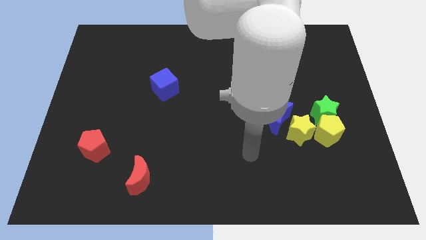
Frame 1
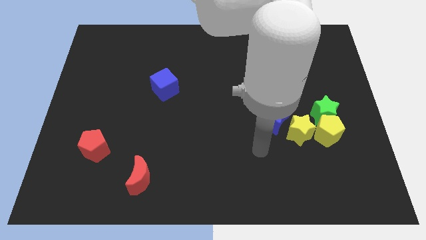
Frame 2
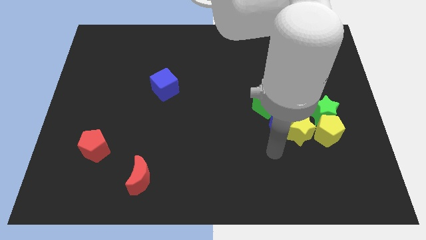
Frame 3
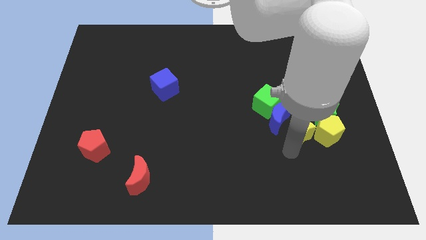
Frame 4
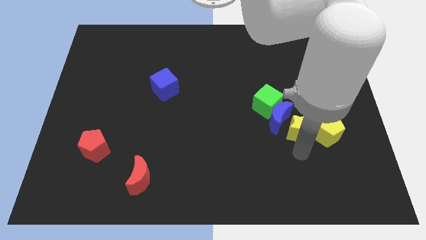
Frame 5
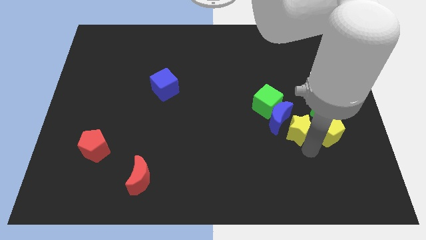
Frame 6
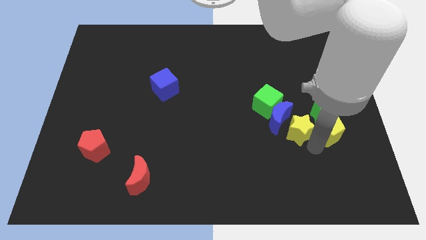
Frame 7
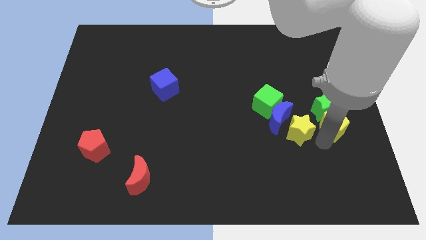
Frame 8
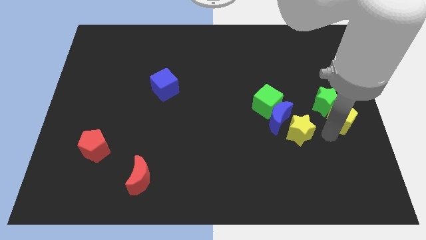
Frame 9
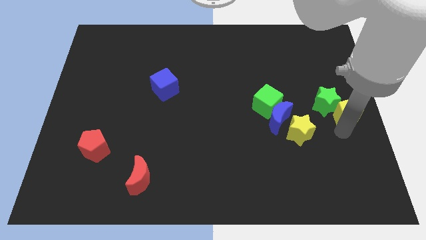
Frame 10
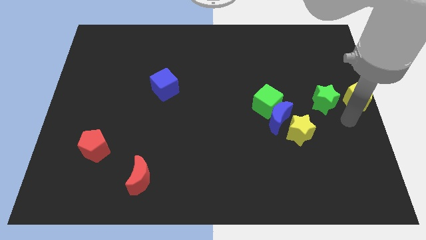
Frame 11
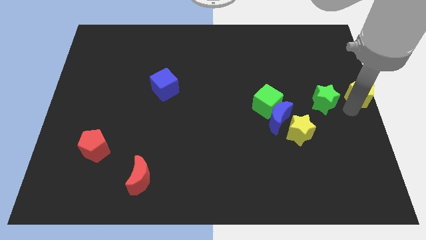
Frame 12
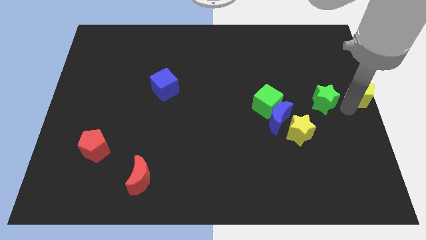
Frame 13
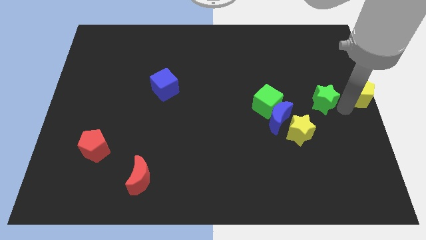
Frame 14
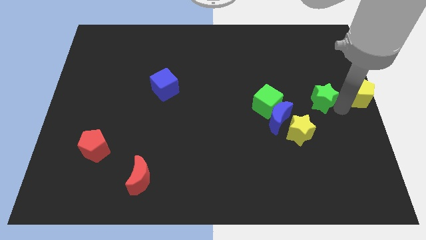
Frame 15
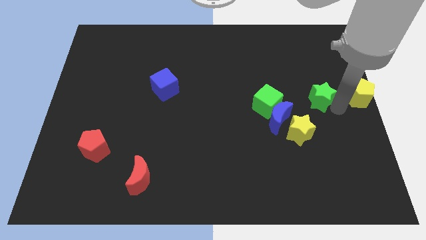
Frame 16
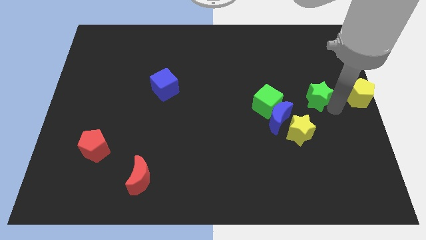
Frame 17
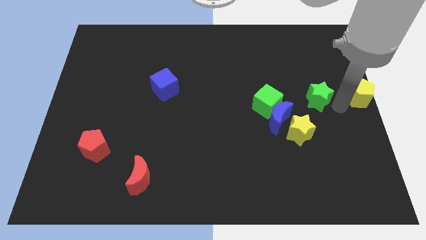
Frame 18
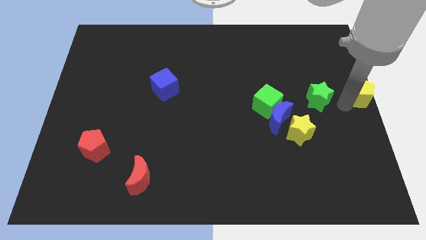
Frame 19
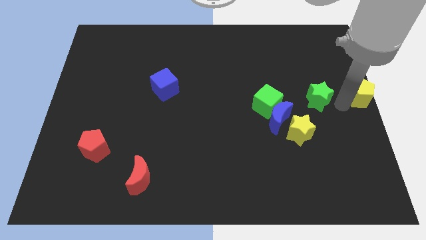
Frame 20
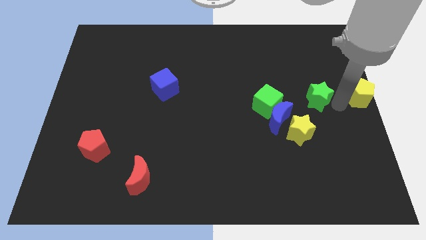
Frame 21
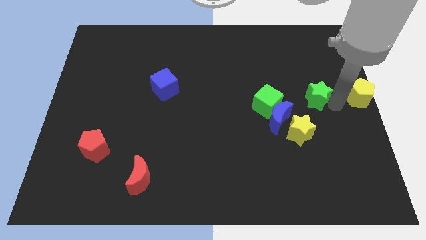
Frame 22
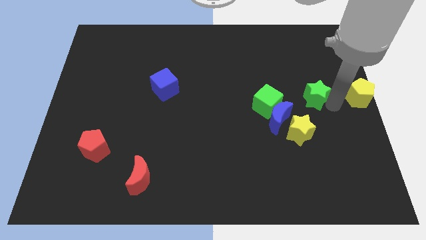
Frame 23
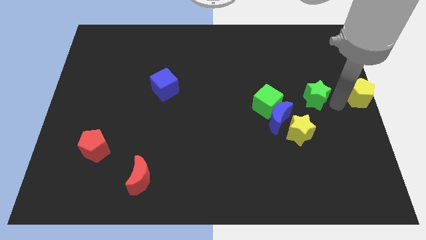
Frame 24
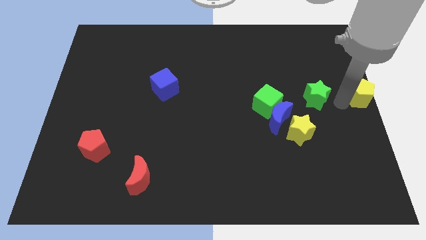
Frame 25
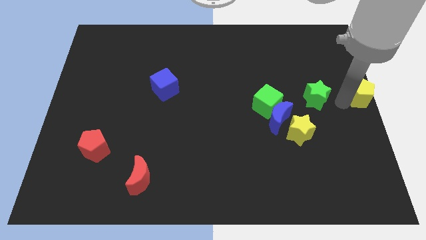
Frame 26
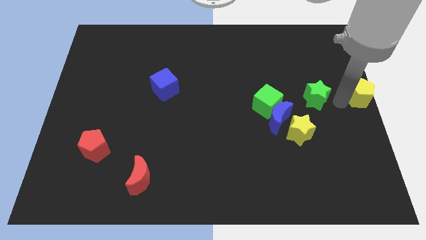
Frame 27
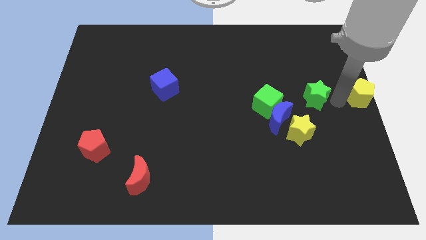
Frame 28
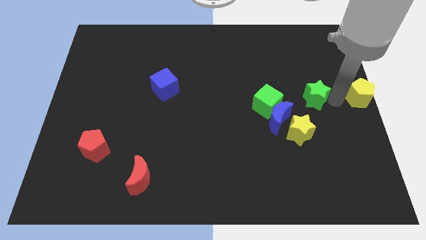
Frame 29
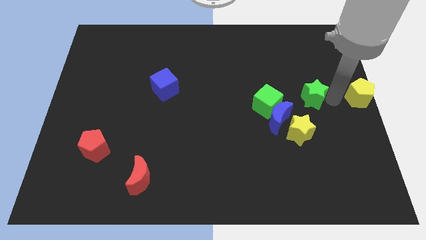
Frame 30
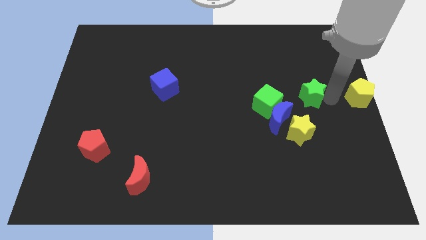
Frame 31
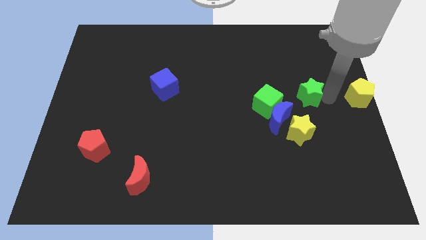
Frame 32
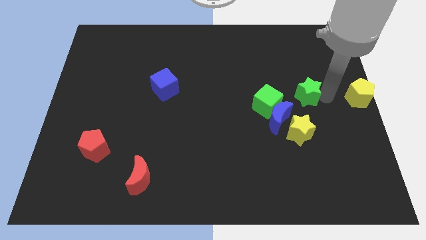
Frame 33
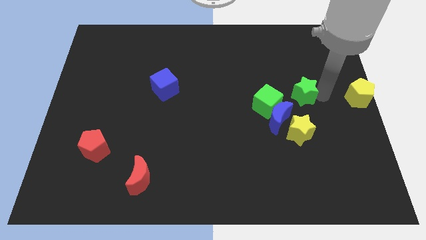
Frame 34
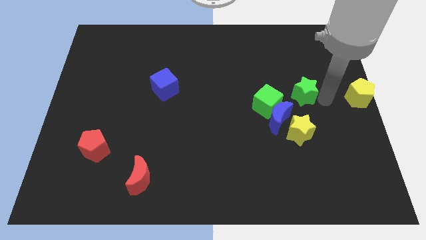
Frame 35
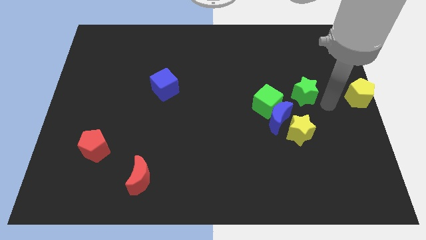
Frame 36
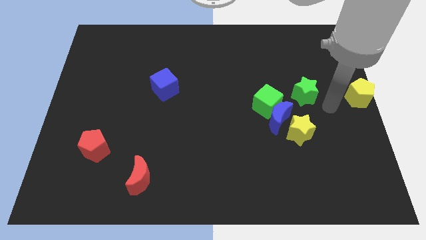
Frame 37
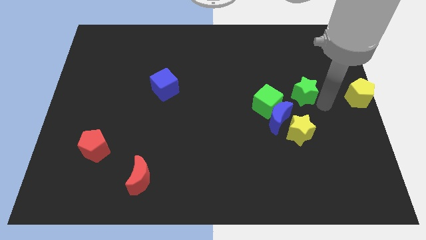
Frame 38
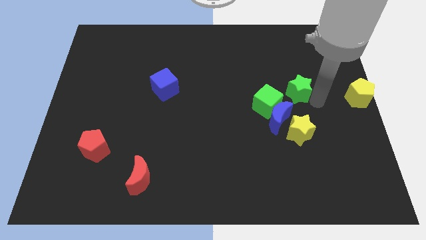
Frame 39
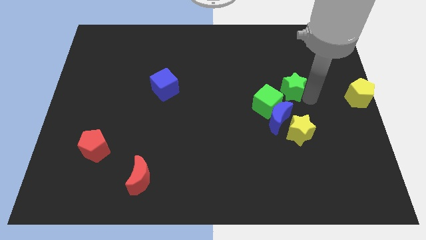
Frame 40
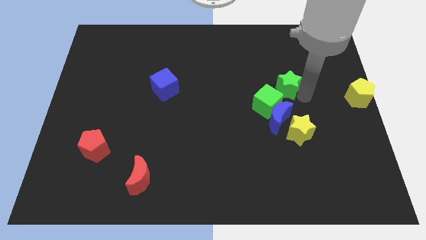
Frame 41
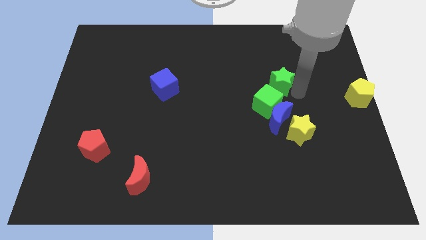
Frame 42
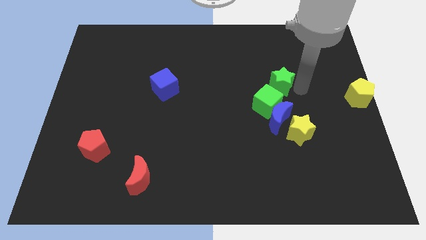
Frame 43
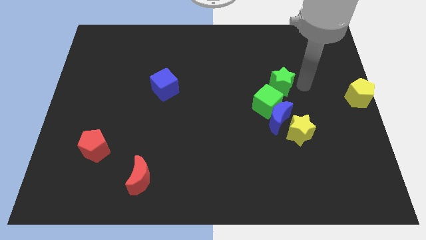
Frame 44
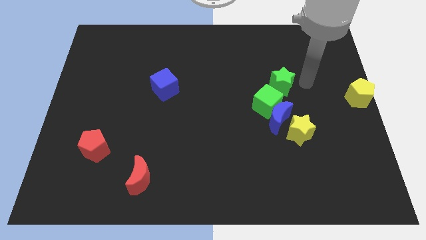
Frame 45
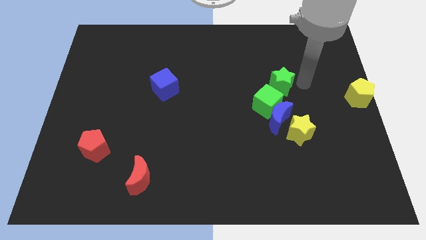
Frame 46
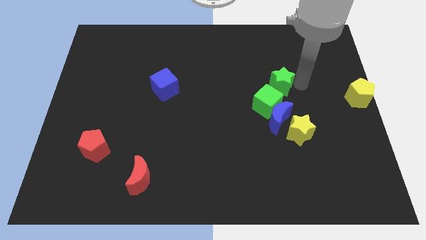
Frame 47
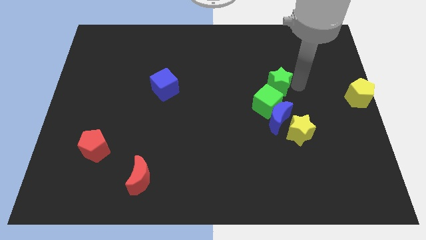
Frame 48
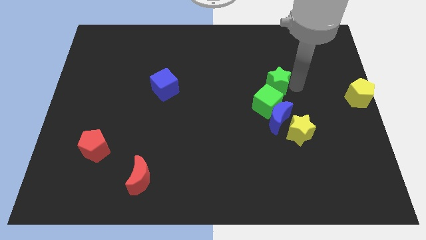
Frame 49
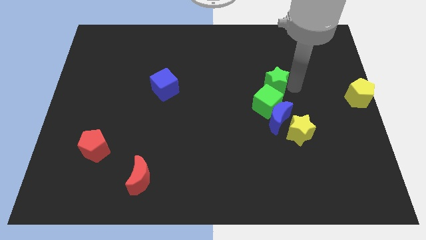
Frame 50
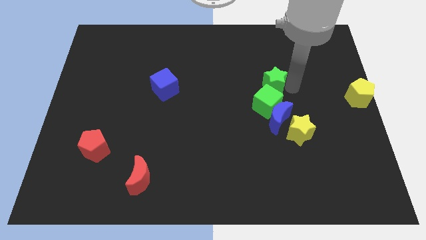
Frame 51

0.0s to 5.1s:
slightly slide the green star to the left

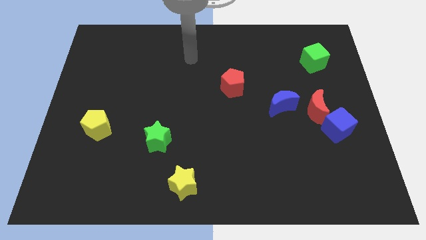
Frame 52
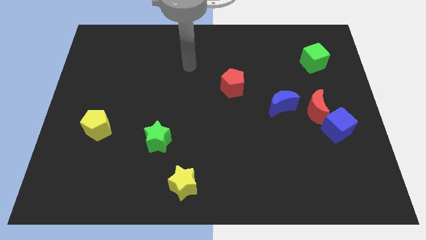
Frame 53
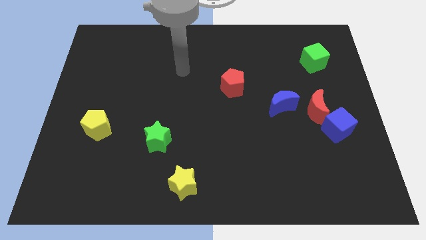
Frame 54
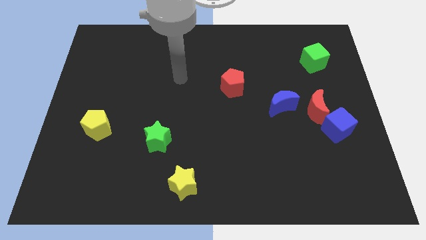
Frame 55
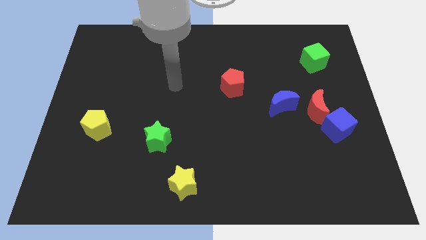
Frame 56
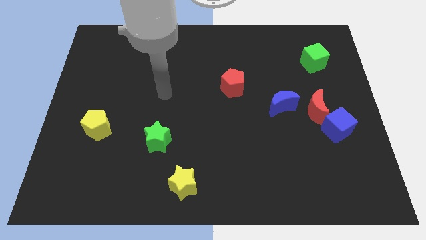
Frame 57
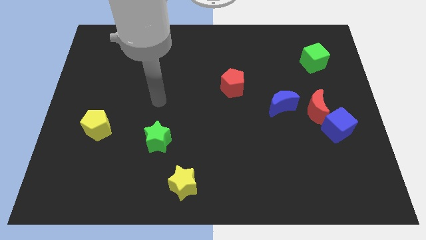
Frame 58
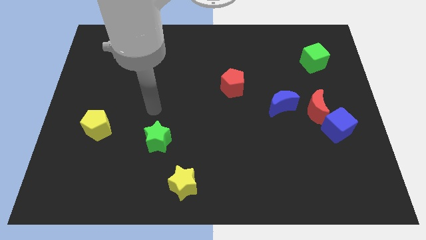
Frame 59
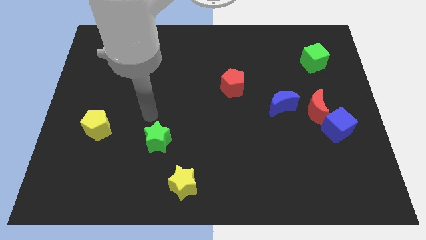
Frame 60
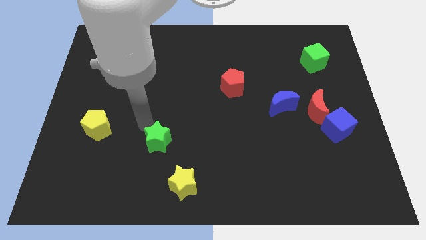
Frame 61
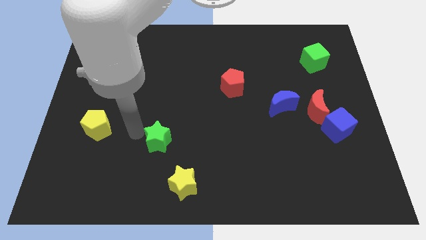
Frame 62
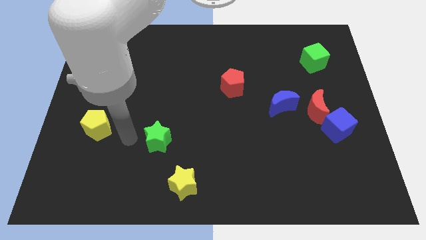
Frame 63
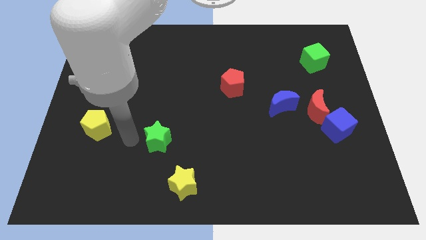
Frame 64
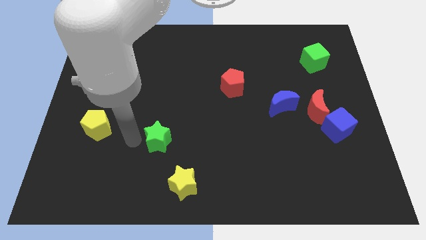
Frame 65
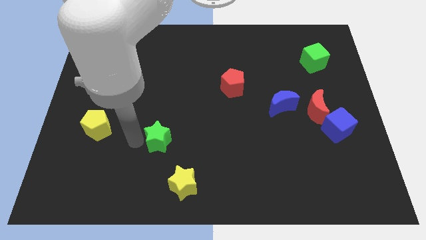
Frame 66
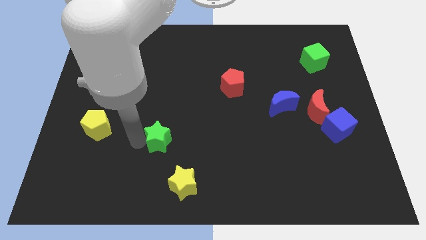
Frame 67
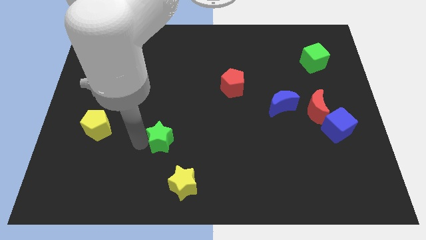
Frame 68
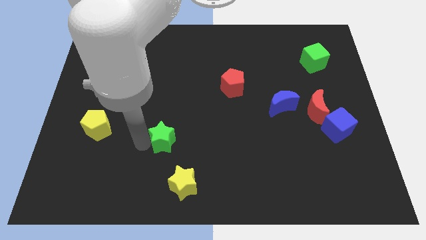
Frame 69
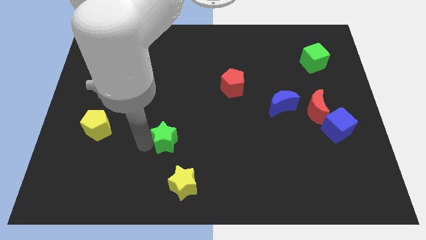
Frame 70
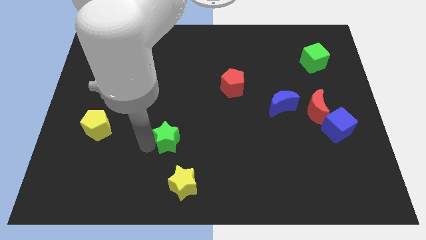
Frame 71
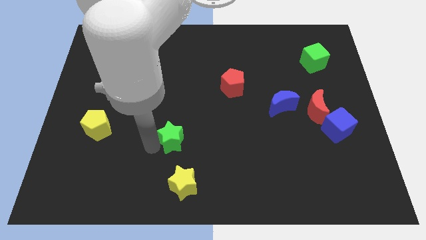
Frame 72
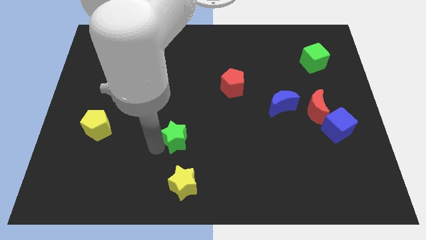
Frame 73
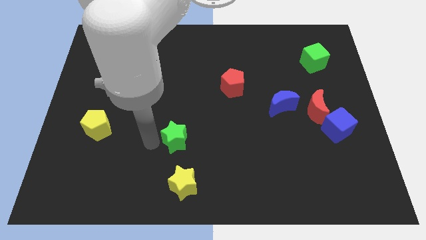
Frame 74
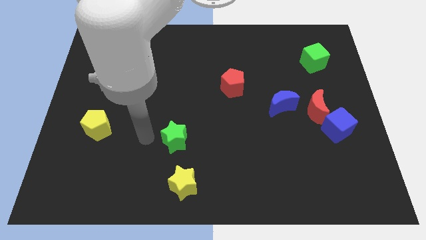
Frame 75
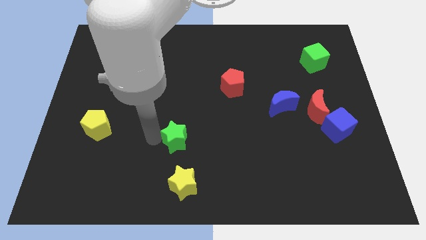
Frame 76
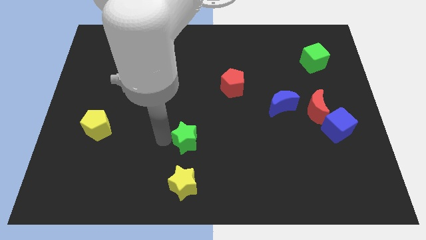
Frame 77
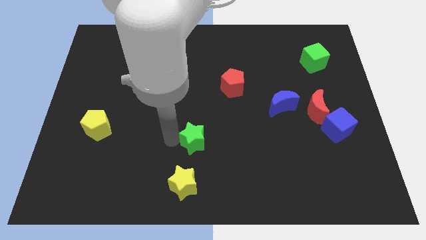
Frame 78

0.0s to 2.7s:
move the green star to the right slightly

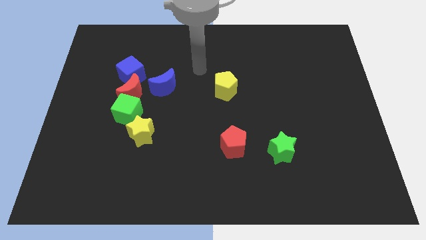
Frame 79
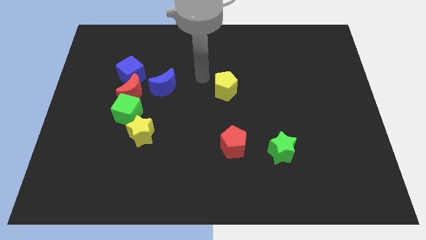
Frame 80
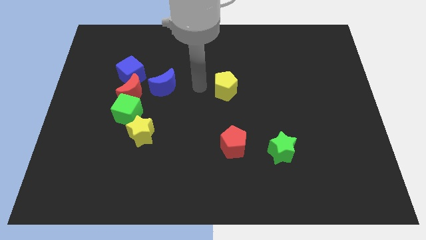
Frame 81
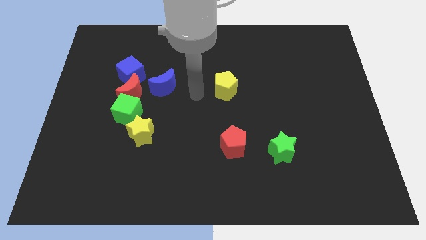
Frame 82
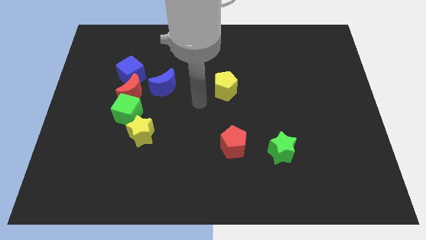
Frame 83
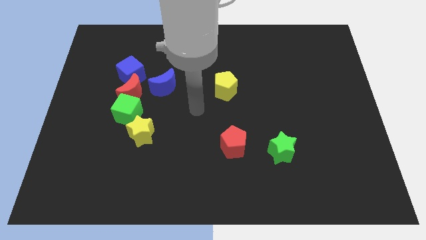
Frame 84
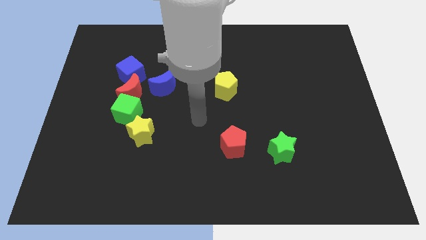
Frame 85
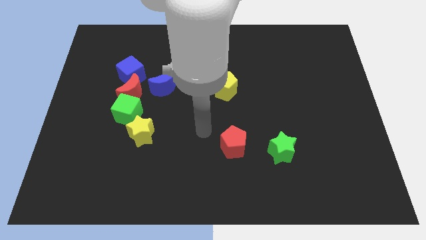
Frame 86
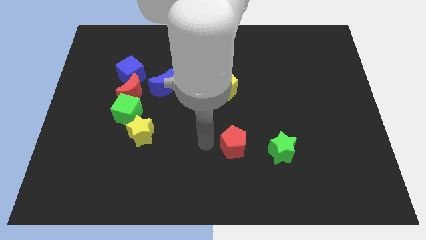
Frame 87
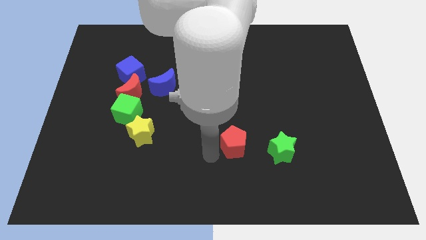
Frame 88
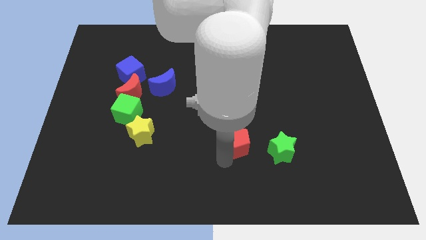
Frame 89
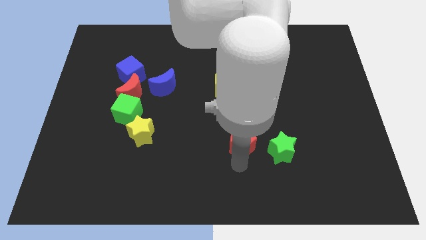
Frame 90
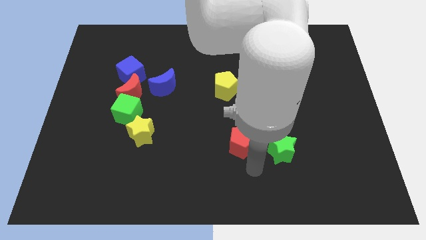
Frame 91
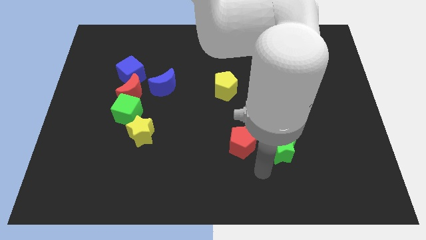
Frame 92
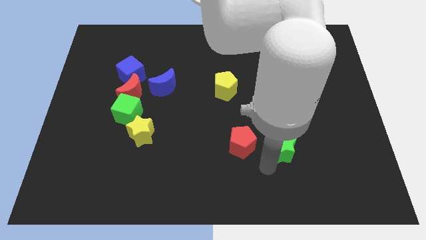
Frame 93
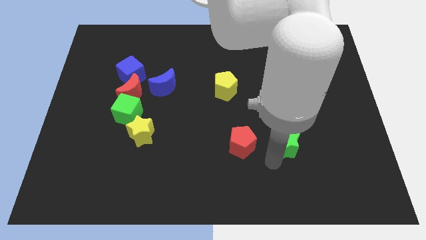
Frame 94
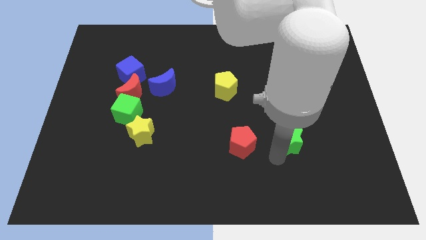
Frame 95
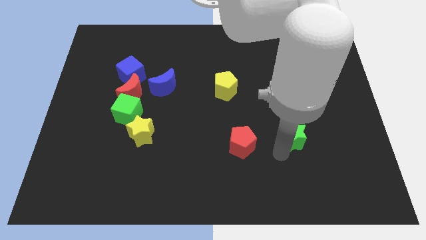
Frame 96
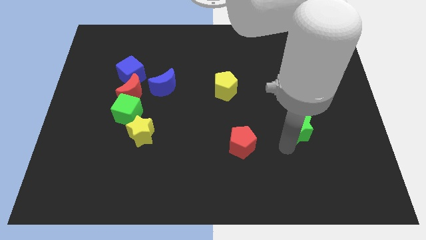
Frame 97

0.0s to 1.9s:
push the green star somewhat upwards and right diagonally
